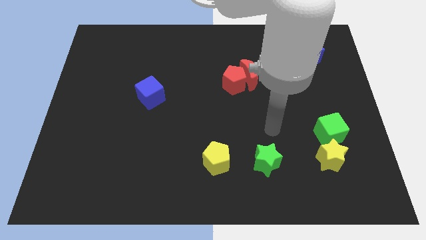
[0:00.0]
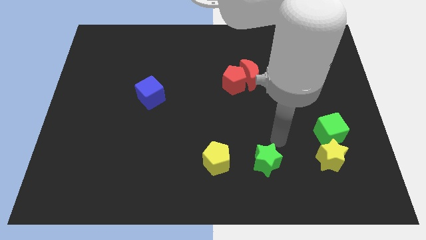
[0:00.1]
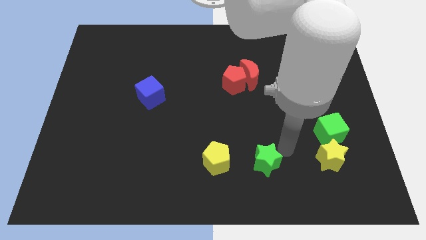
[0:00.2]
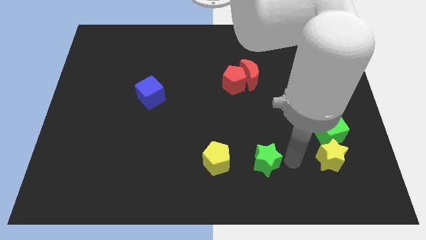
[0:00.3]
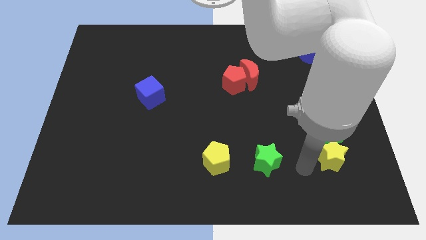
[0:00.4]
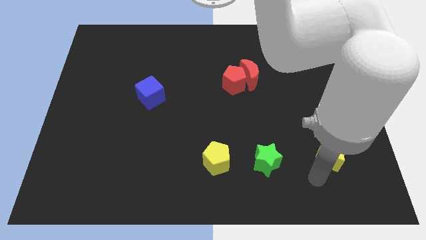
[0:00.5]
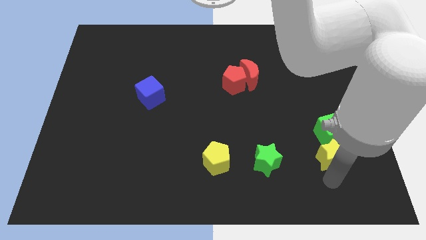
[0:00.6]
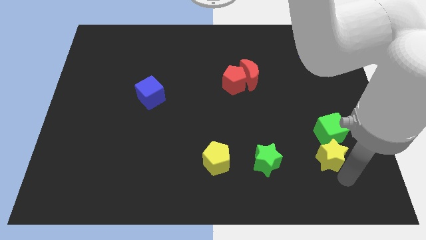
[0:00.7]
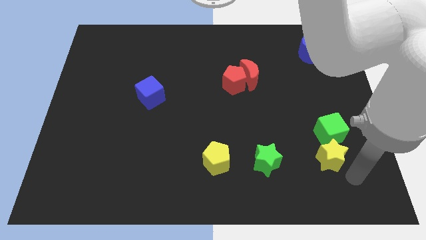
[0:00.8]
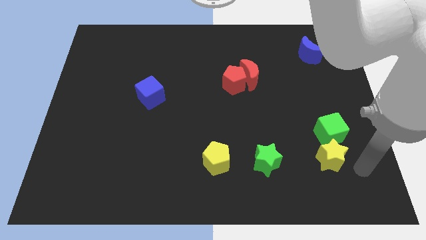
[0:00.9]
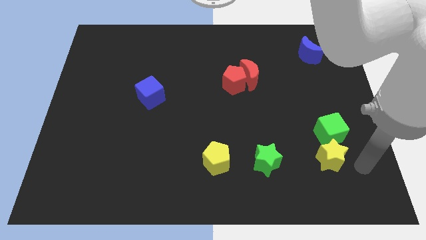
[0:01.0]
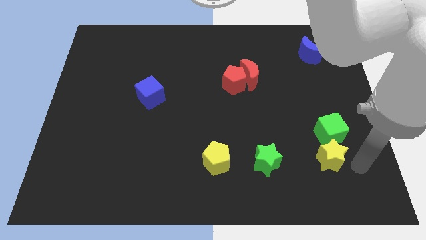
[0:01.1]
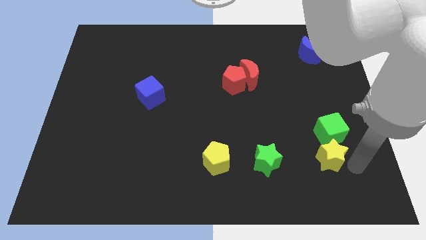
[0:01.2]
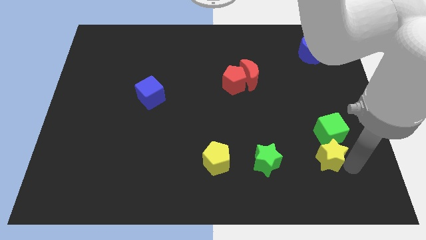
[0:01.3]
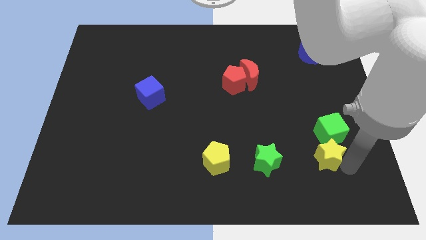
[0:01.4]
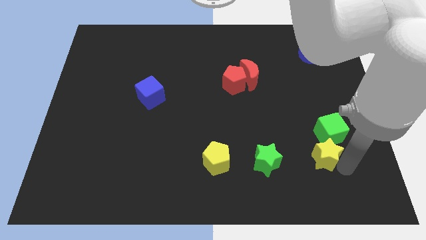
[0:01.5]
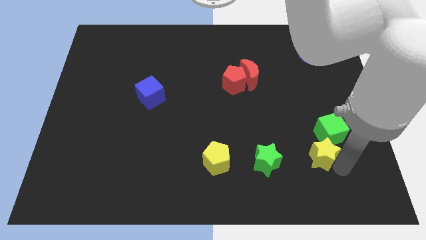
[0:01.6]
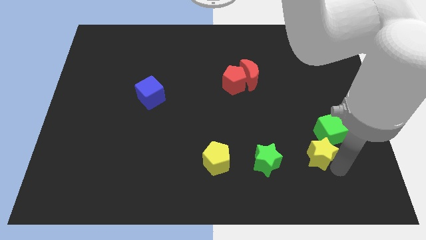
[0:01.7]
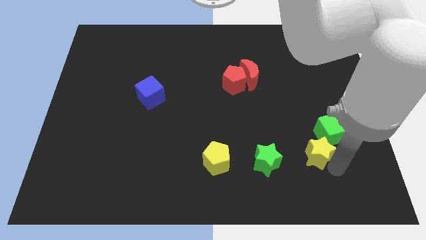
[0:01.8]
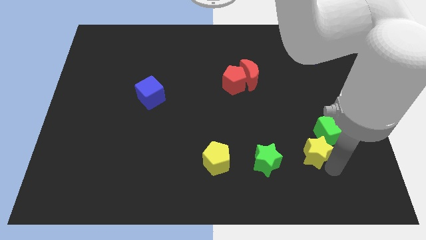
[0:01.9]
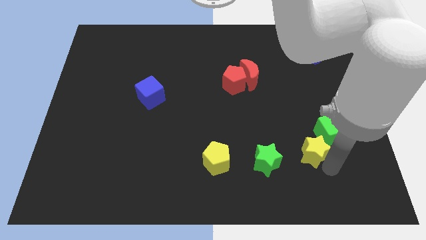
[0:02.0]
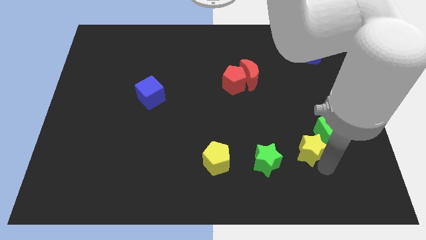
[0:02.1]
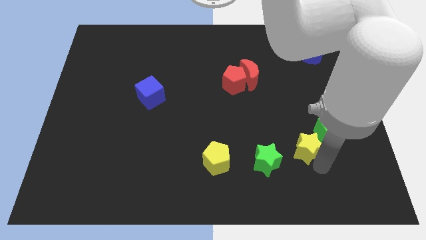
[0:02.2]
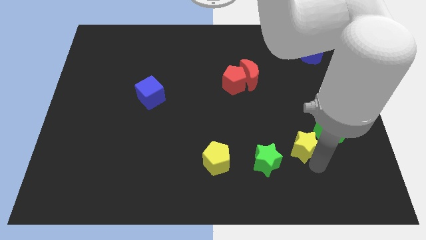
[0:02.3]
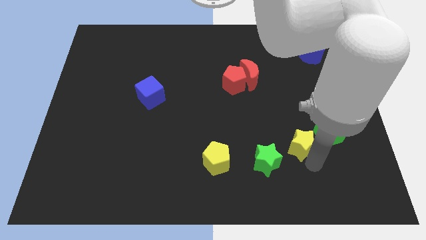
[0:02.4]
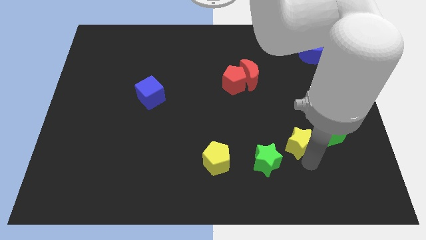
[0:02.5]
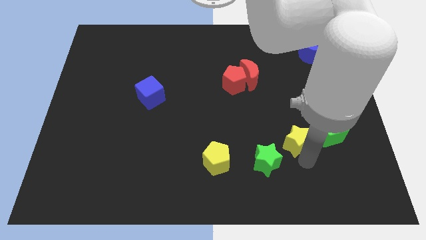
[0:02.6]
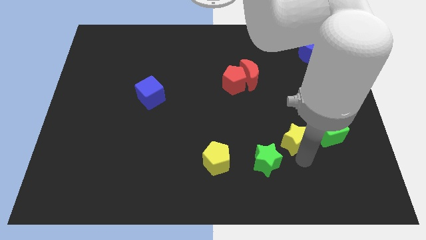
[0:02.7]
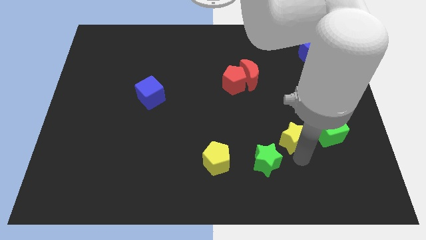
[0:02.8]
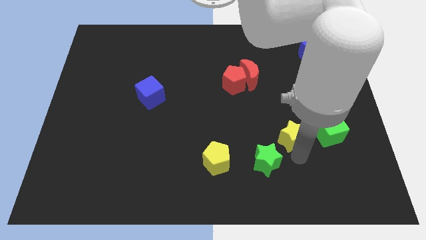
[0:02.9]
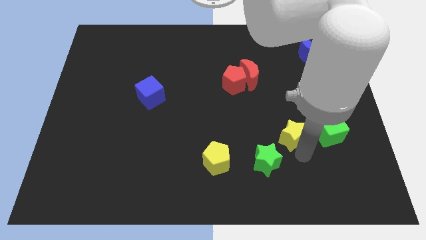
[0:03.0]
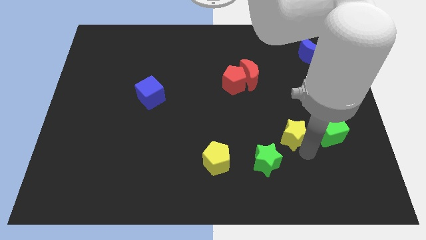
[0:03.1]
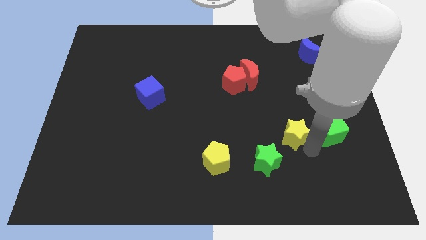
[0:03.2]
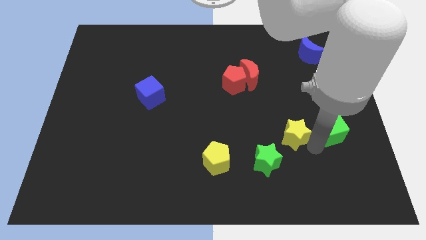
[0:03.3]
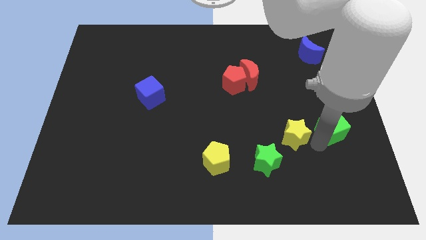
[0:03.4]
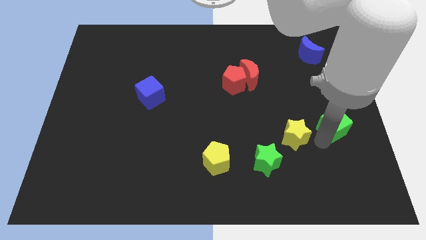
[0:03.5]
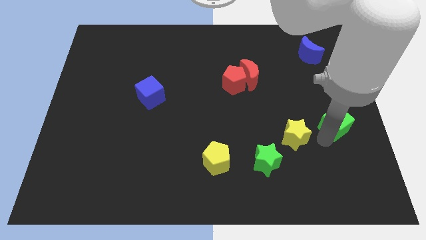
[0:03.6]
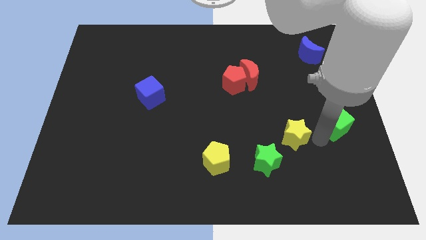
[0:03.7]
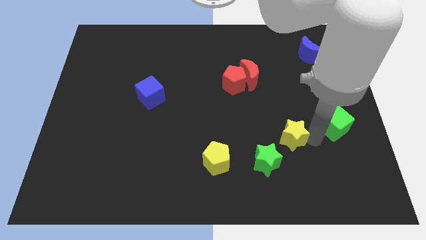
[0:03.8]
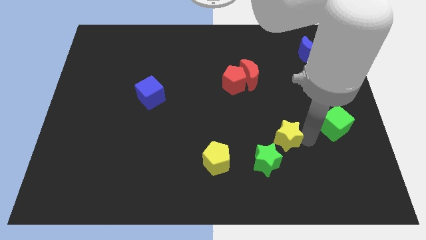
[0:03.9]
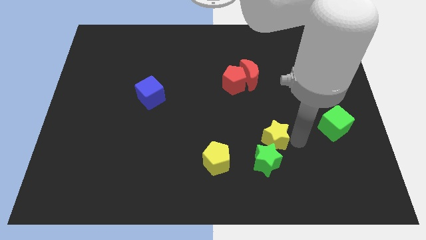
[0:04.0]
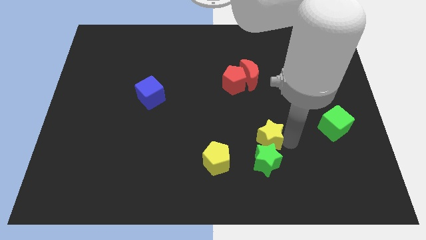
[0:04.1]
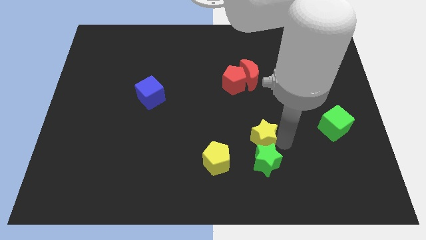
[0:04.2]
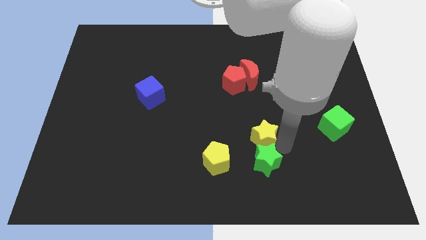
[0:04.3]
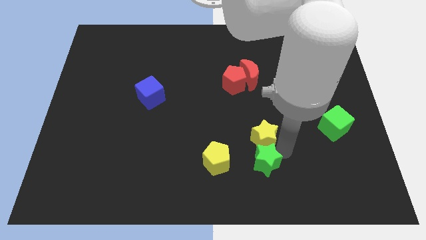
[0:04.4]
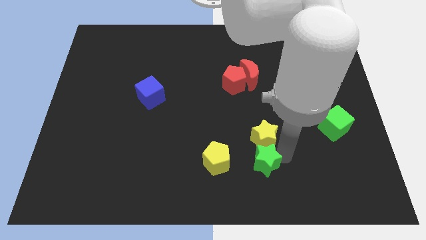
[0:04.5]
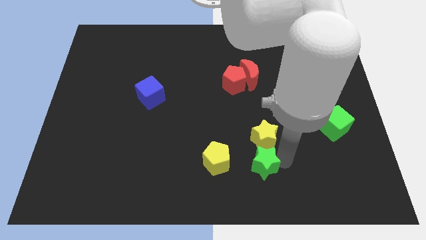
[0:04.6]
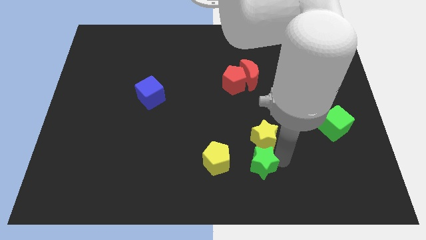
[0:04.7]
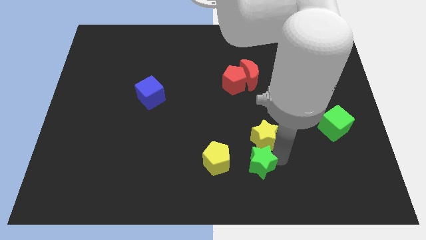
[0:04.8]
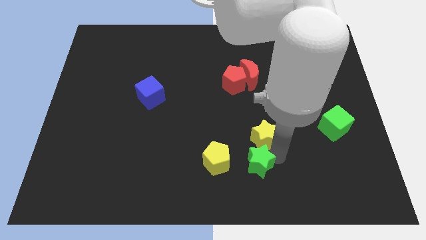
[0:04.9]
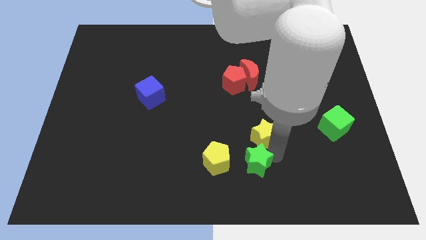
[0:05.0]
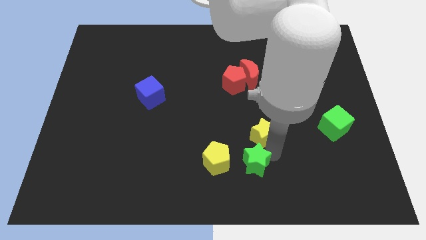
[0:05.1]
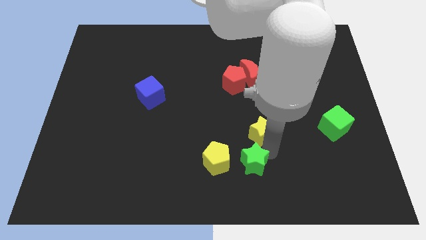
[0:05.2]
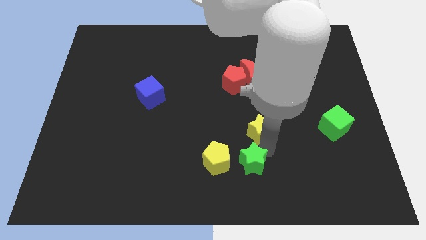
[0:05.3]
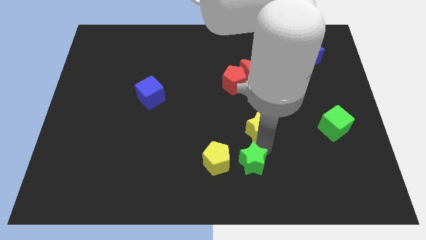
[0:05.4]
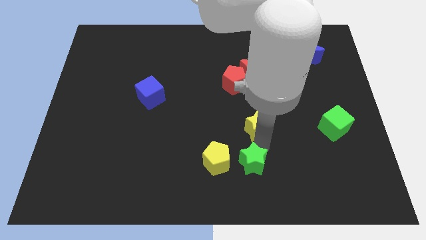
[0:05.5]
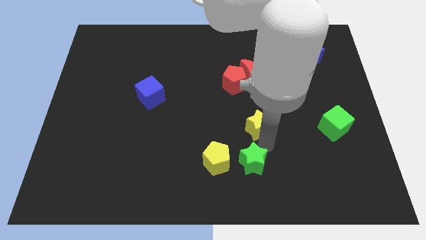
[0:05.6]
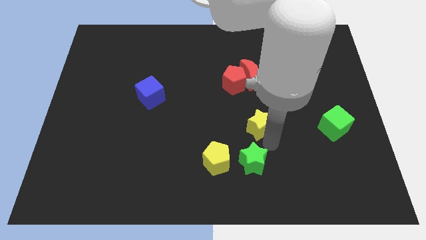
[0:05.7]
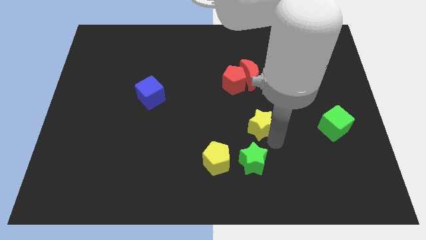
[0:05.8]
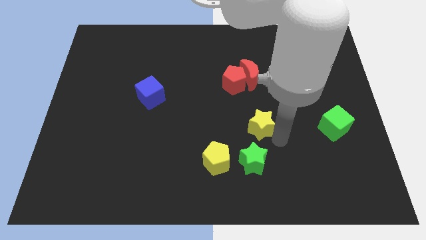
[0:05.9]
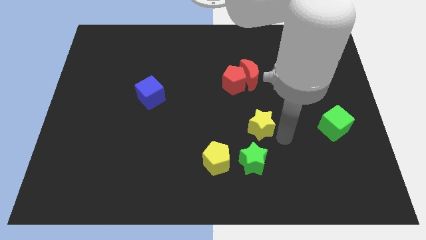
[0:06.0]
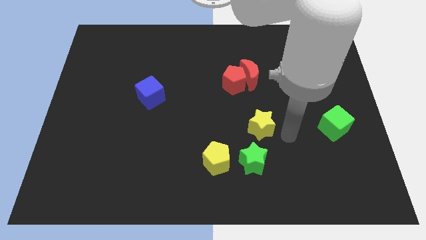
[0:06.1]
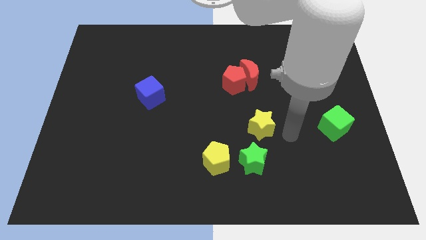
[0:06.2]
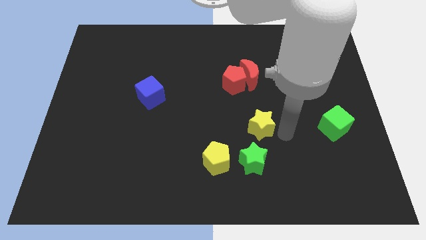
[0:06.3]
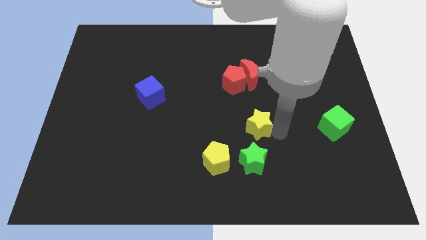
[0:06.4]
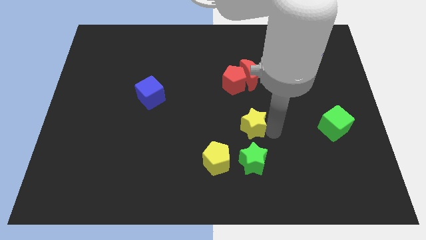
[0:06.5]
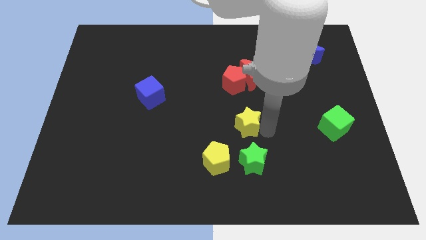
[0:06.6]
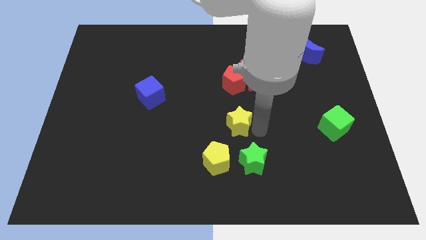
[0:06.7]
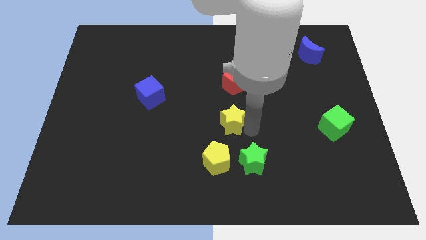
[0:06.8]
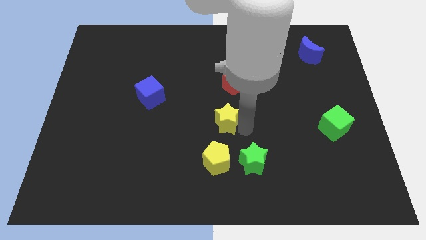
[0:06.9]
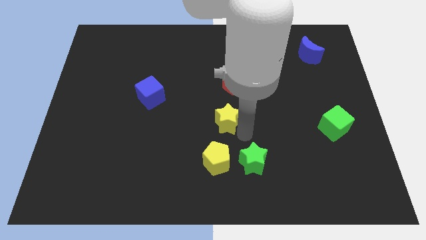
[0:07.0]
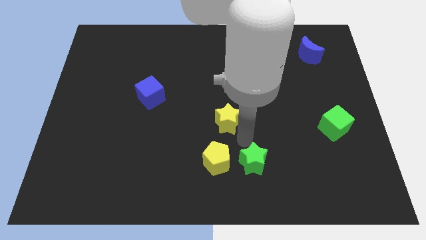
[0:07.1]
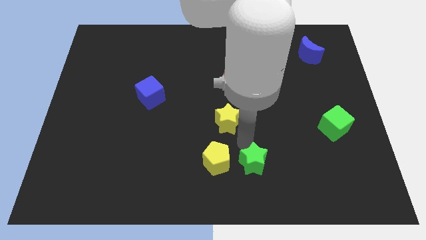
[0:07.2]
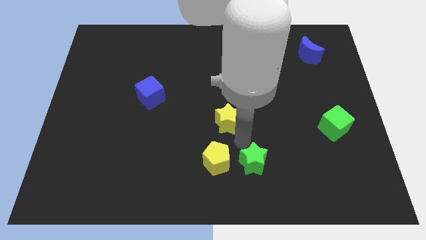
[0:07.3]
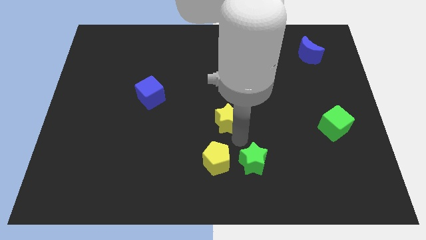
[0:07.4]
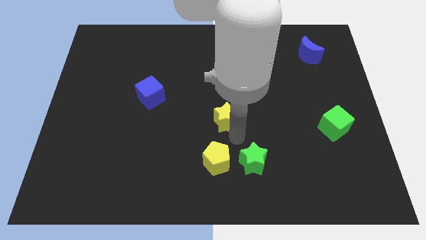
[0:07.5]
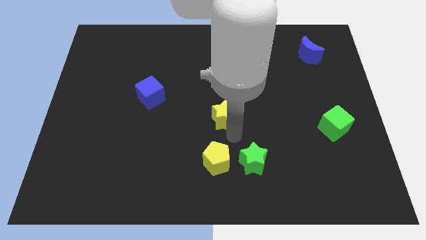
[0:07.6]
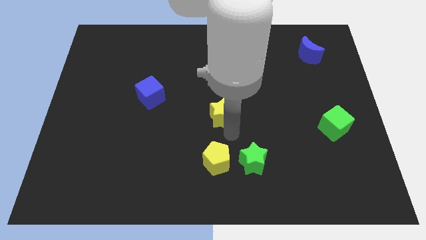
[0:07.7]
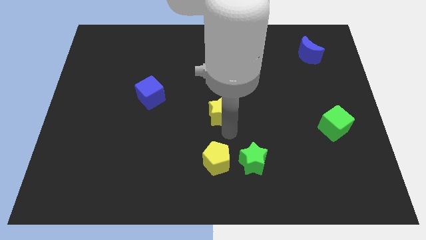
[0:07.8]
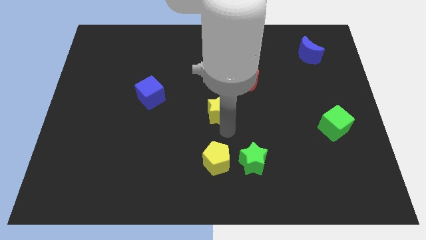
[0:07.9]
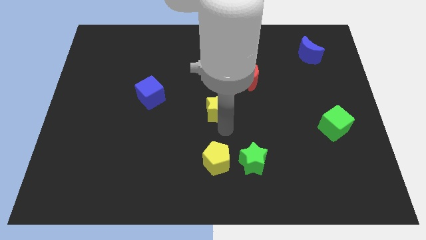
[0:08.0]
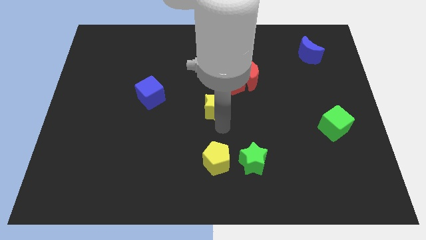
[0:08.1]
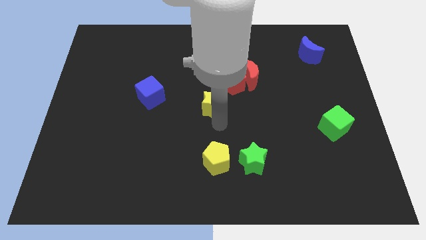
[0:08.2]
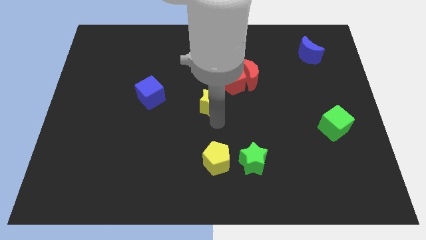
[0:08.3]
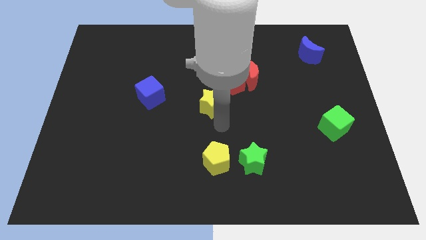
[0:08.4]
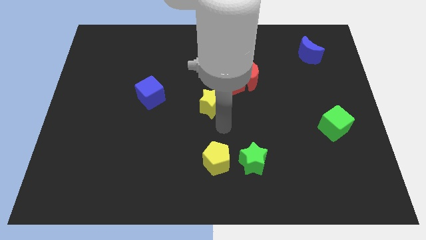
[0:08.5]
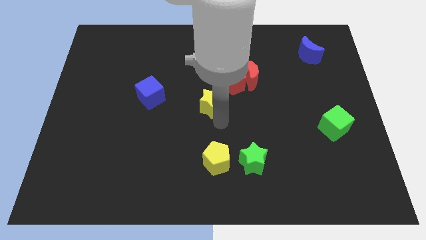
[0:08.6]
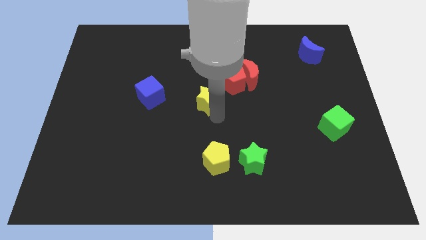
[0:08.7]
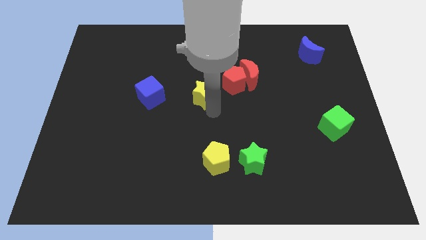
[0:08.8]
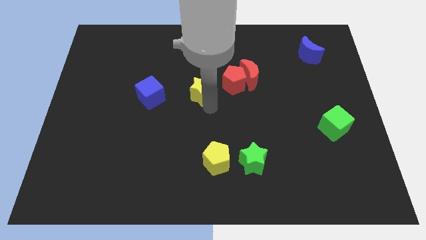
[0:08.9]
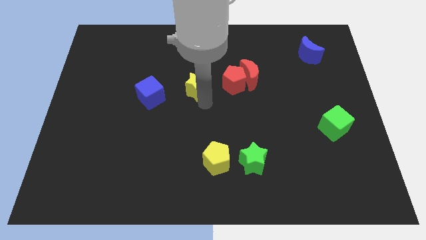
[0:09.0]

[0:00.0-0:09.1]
move the yellow star just left of the red moon
